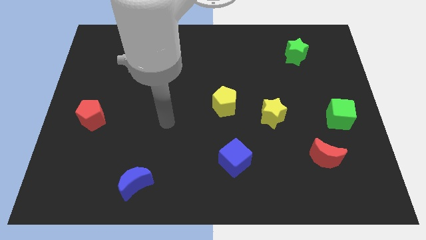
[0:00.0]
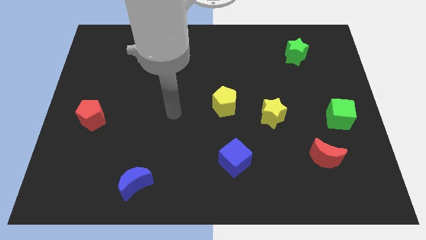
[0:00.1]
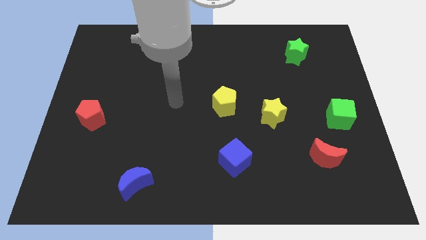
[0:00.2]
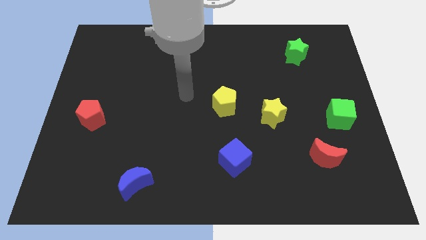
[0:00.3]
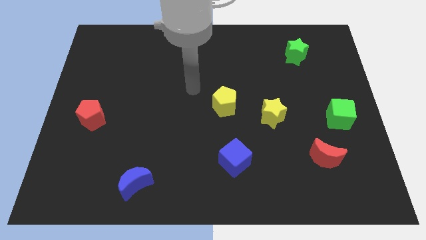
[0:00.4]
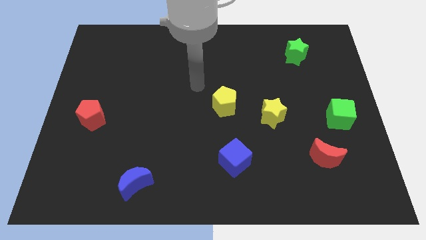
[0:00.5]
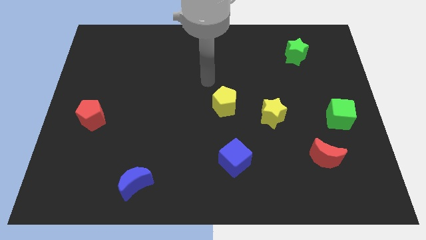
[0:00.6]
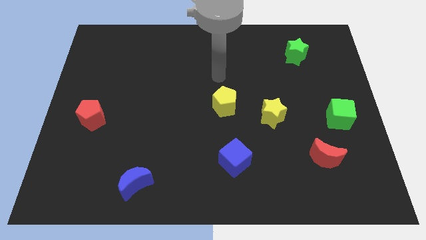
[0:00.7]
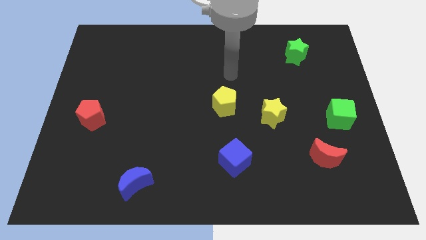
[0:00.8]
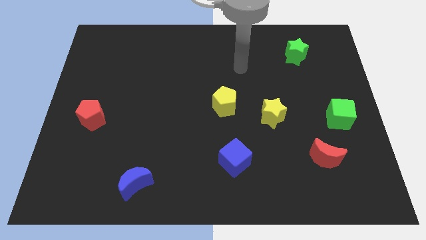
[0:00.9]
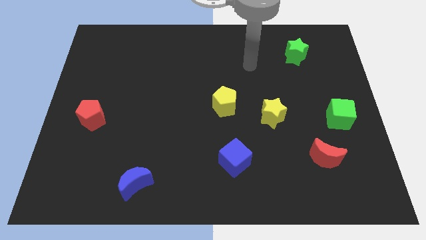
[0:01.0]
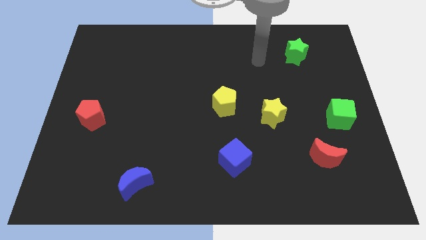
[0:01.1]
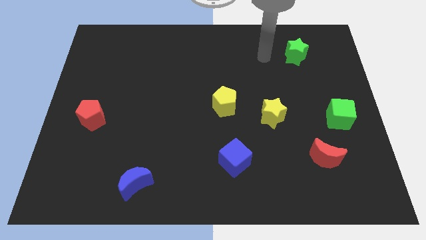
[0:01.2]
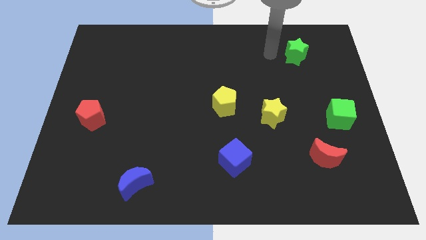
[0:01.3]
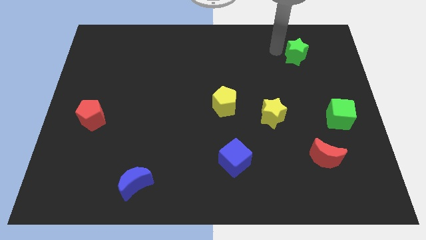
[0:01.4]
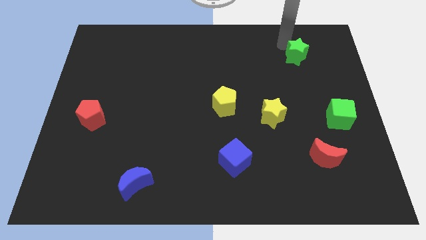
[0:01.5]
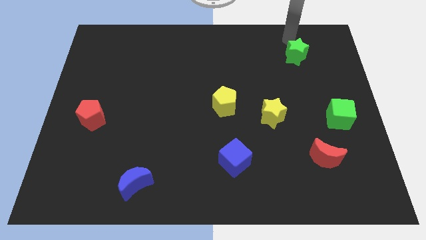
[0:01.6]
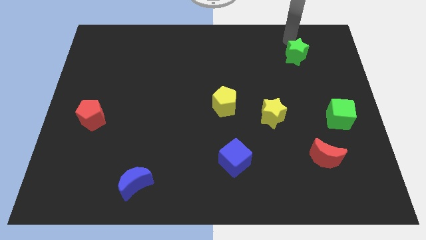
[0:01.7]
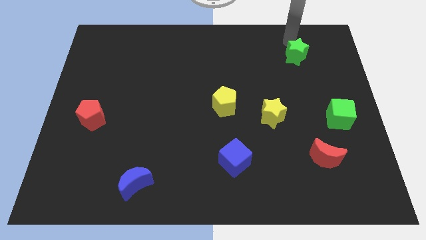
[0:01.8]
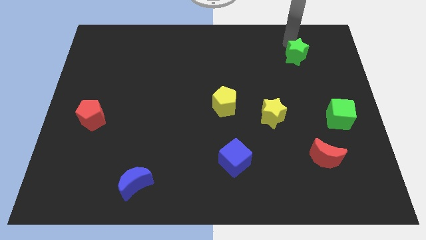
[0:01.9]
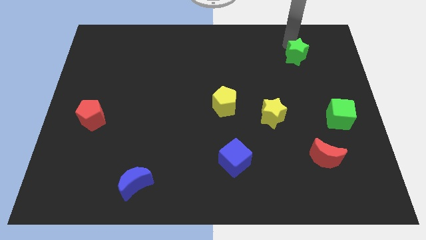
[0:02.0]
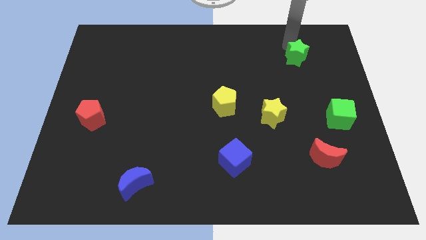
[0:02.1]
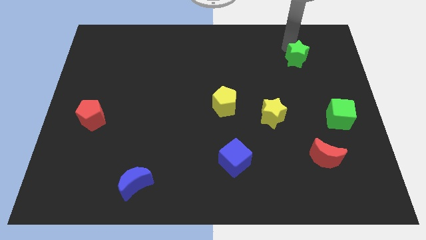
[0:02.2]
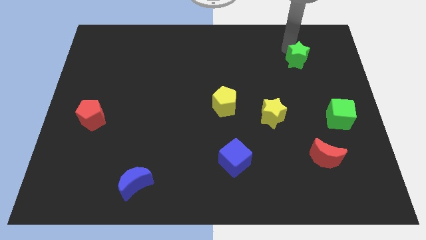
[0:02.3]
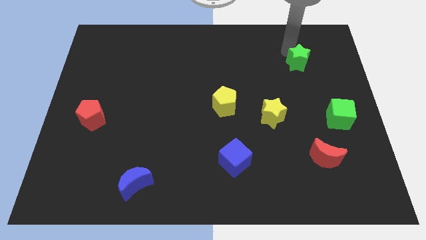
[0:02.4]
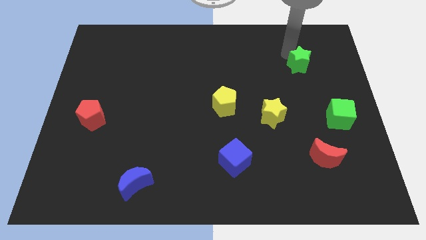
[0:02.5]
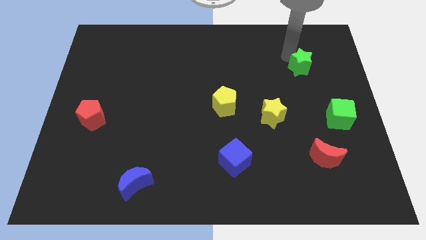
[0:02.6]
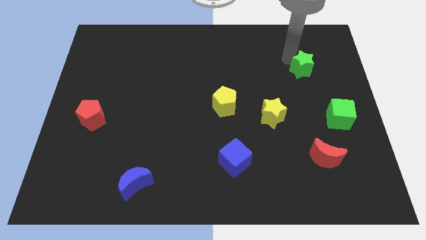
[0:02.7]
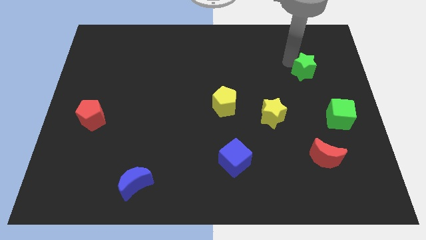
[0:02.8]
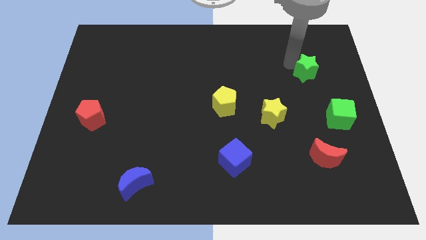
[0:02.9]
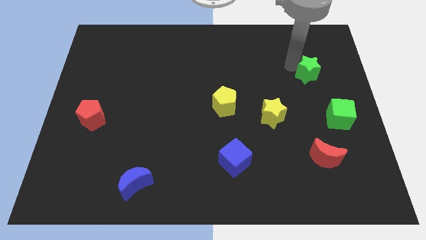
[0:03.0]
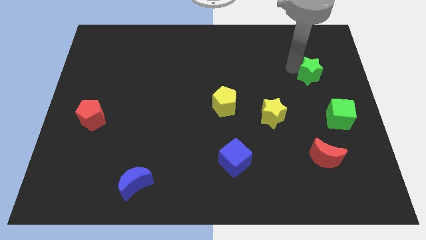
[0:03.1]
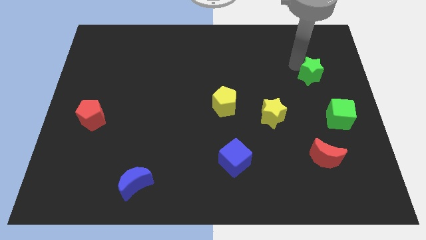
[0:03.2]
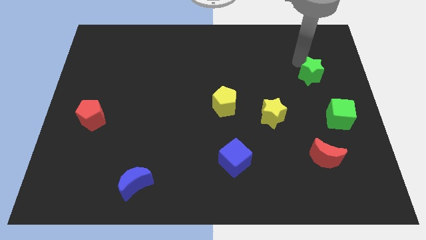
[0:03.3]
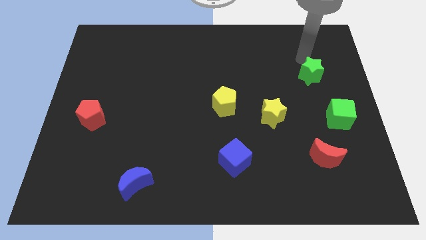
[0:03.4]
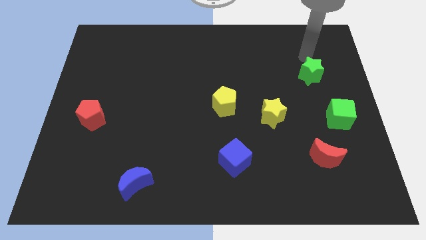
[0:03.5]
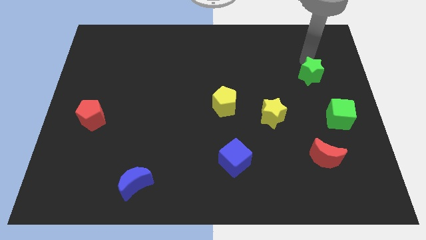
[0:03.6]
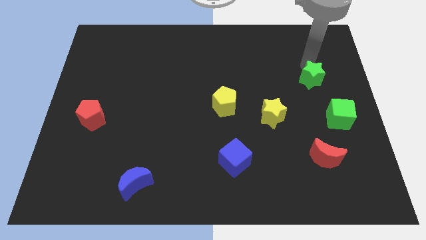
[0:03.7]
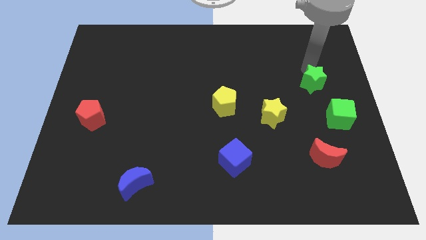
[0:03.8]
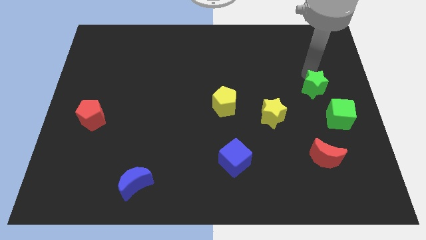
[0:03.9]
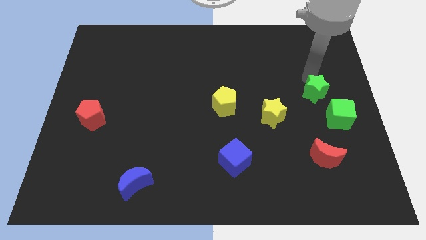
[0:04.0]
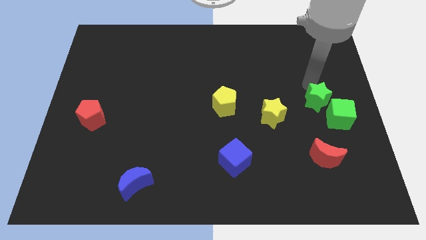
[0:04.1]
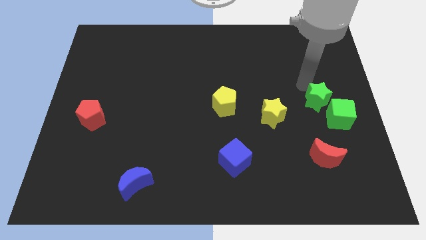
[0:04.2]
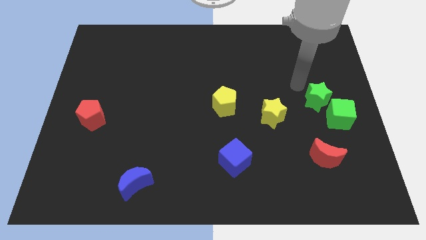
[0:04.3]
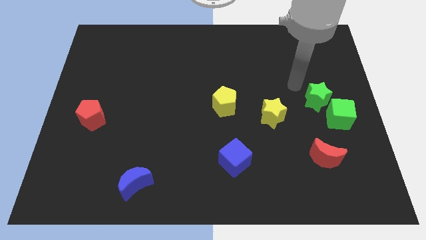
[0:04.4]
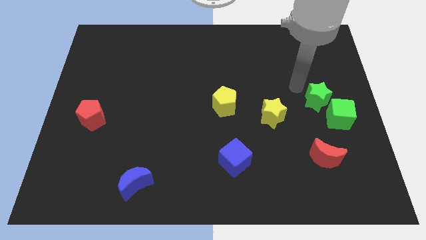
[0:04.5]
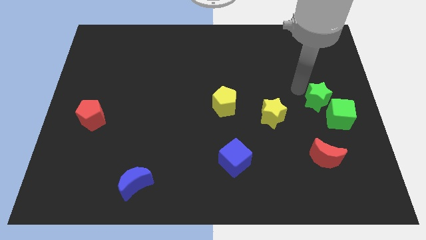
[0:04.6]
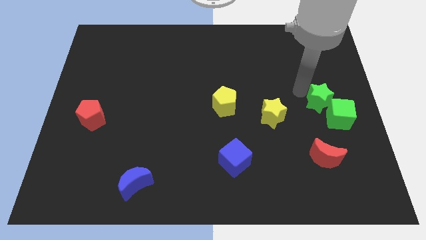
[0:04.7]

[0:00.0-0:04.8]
put the green star next to the green cube

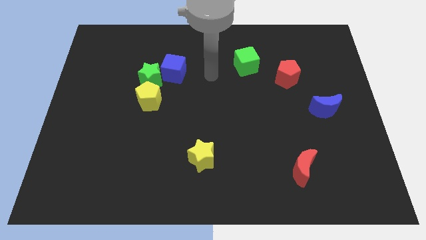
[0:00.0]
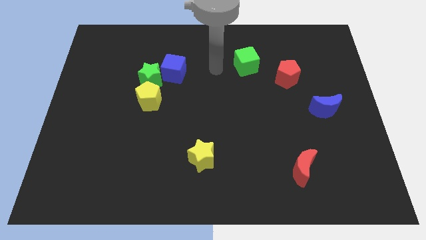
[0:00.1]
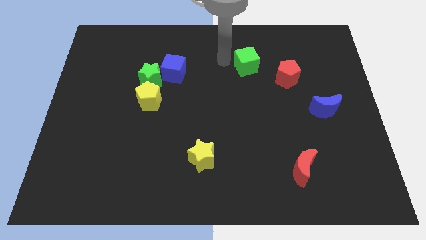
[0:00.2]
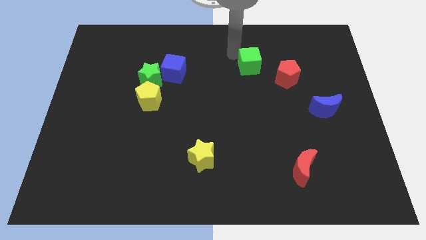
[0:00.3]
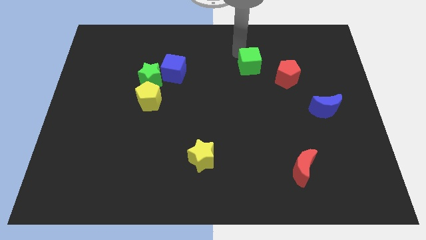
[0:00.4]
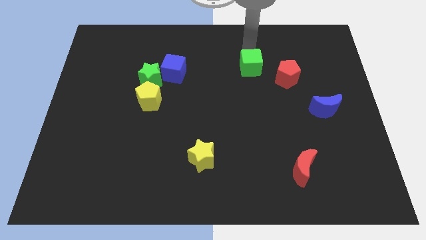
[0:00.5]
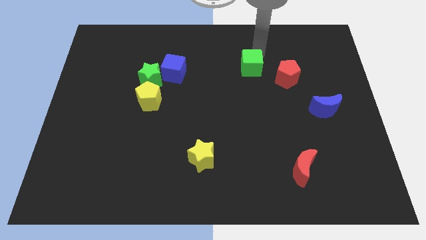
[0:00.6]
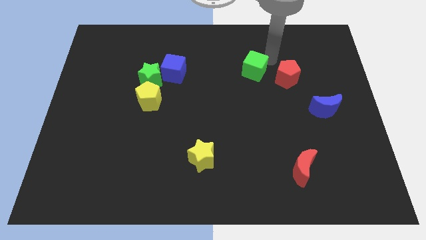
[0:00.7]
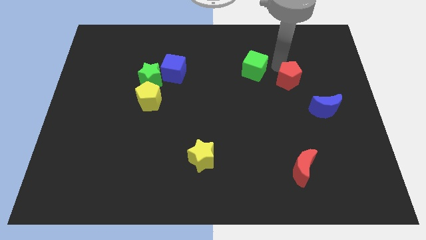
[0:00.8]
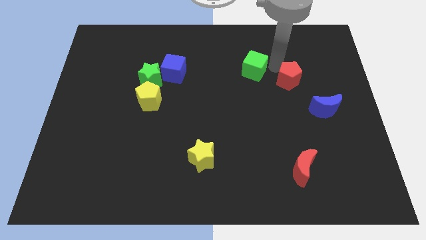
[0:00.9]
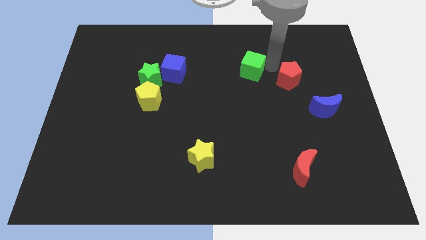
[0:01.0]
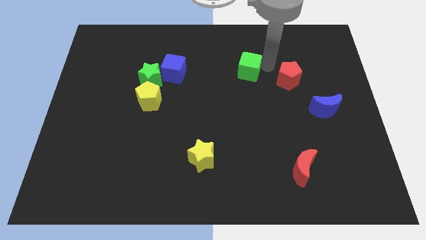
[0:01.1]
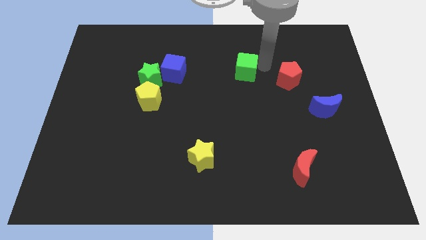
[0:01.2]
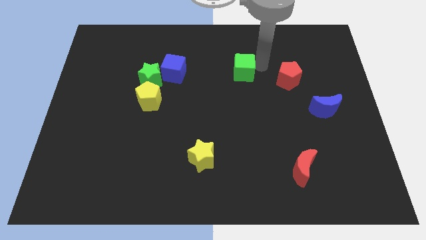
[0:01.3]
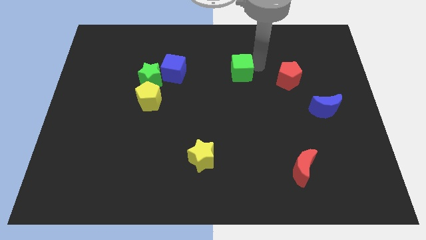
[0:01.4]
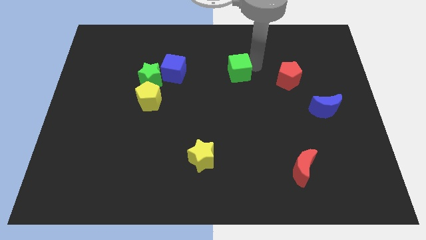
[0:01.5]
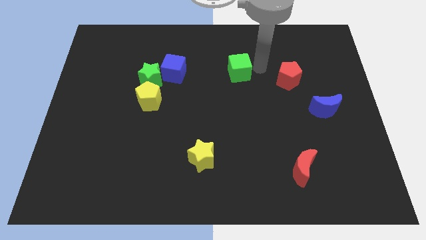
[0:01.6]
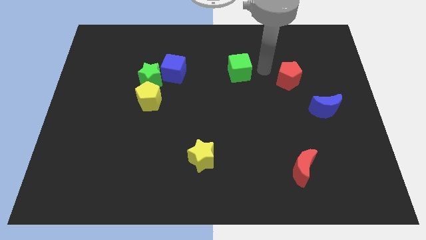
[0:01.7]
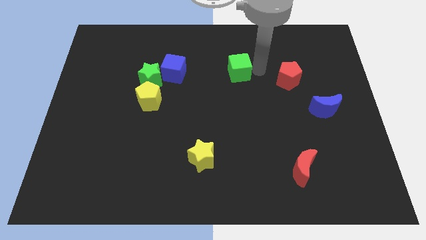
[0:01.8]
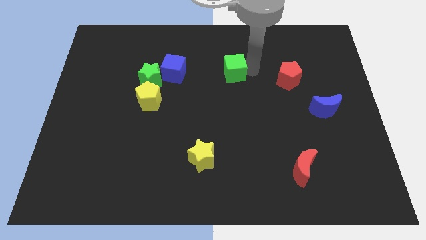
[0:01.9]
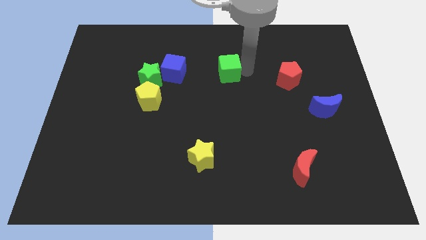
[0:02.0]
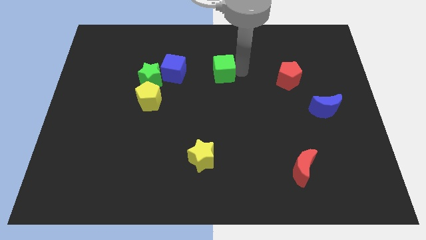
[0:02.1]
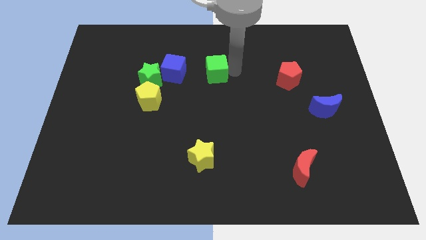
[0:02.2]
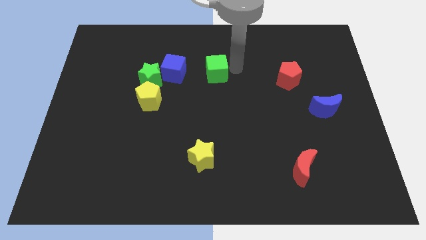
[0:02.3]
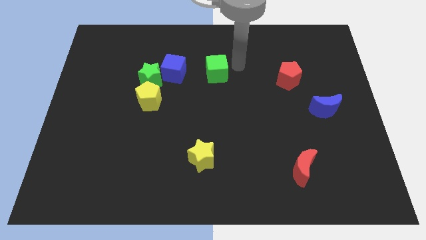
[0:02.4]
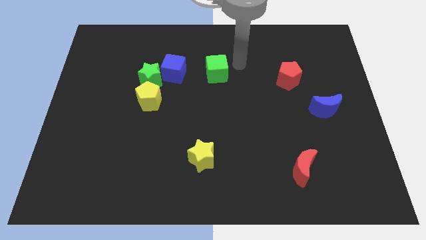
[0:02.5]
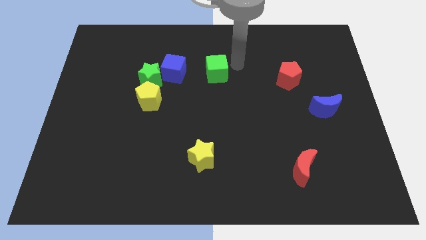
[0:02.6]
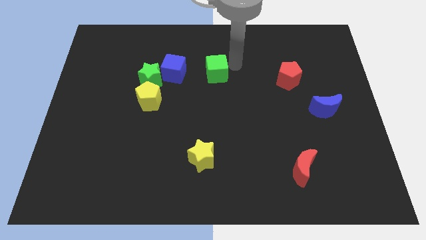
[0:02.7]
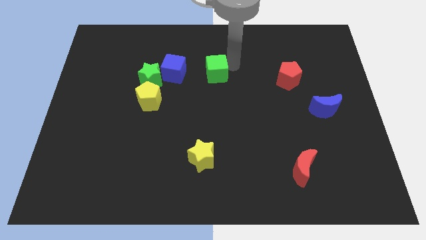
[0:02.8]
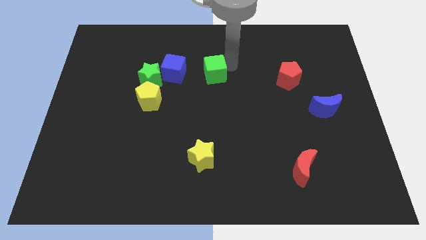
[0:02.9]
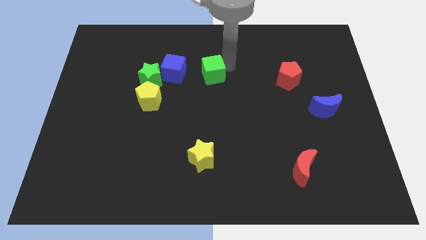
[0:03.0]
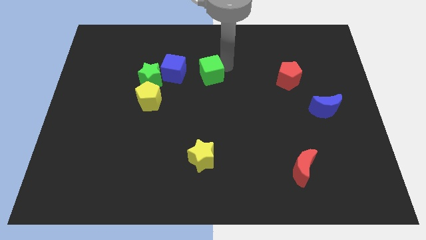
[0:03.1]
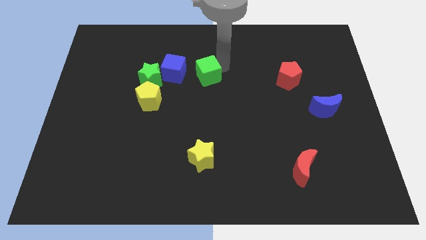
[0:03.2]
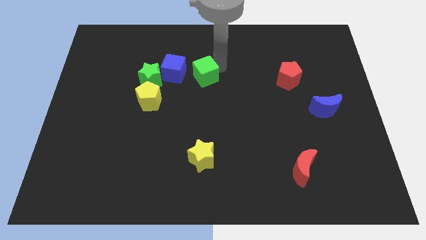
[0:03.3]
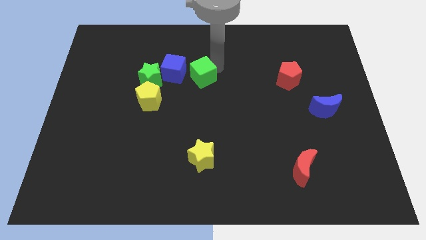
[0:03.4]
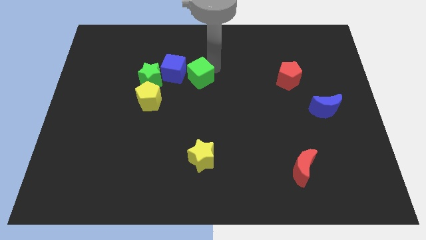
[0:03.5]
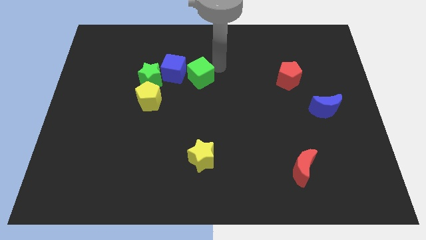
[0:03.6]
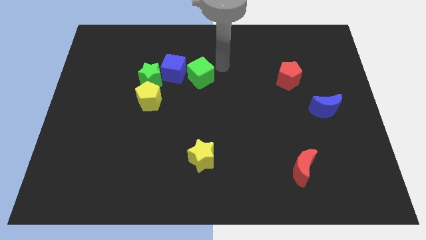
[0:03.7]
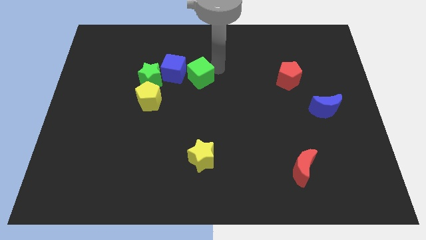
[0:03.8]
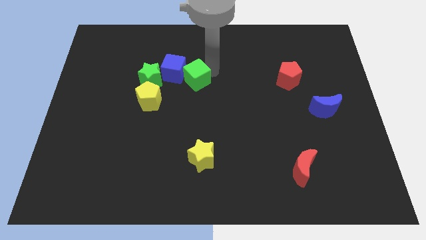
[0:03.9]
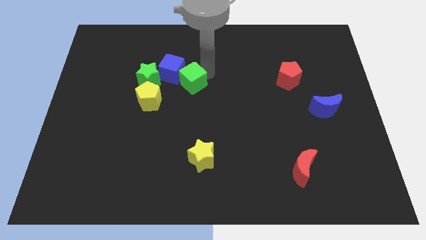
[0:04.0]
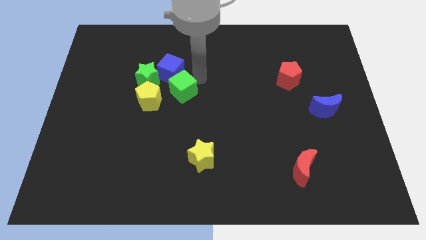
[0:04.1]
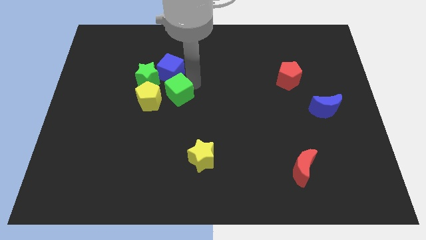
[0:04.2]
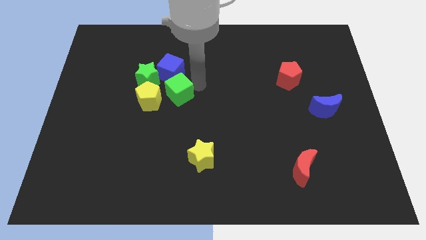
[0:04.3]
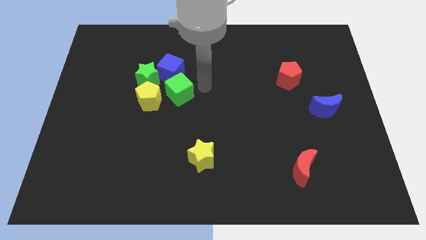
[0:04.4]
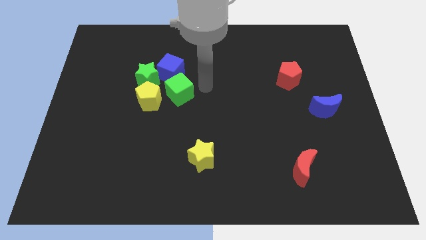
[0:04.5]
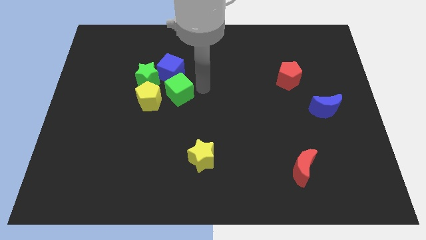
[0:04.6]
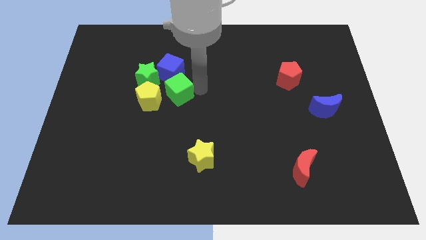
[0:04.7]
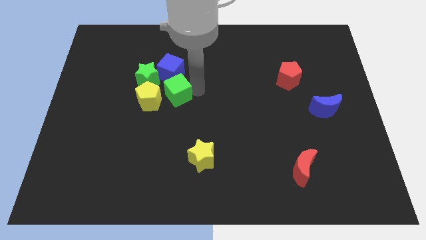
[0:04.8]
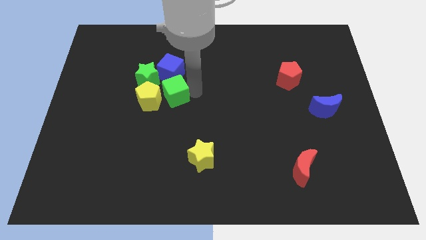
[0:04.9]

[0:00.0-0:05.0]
move the green cube next to the yellow pentagon
